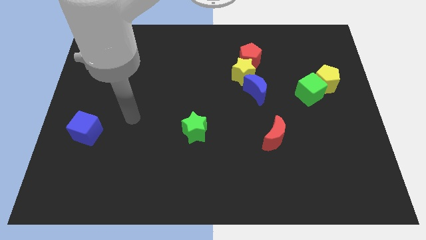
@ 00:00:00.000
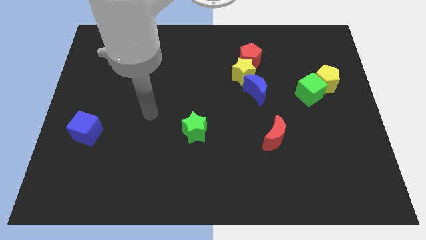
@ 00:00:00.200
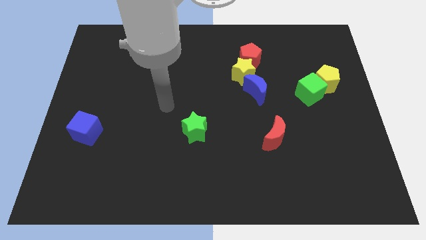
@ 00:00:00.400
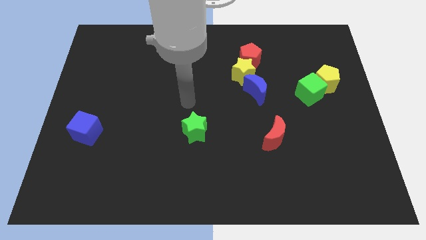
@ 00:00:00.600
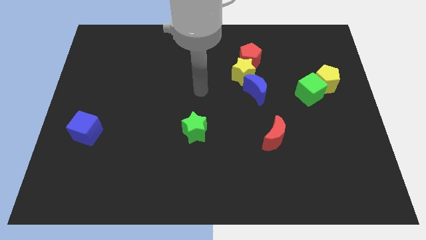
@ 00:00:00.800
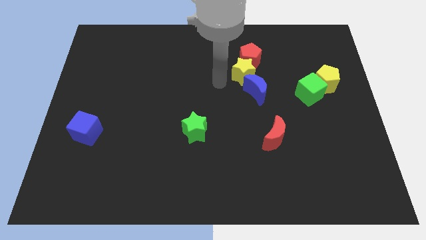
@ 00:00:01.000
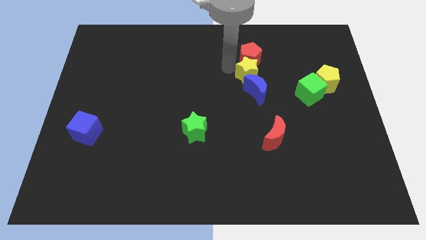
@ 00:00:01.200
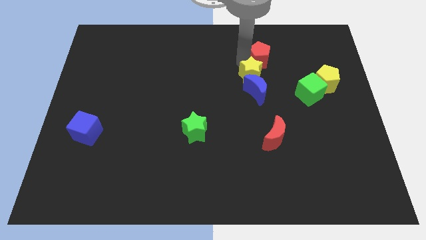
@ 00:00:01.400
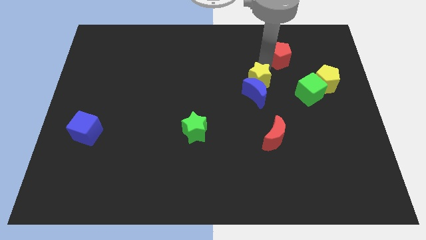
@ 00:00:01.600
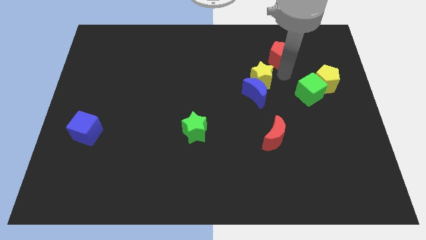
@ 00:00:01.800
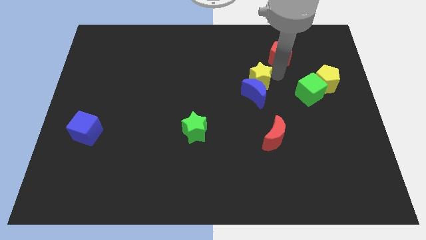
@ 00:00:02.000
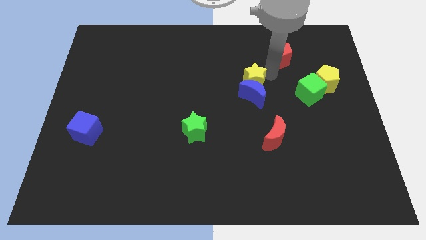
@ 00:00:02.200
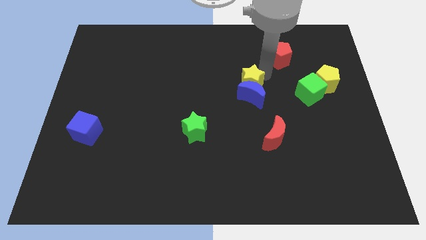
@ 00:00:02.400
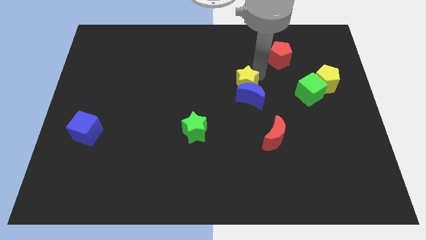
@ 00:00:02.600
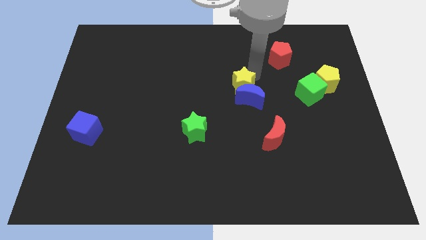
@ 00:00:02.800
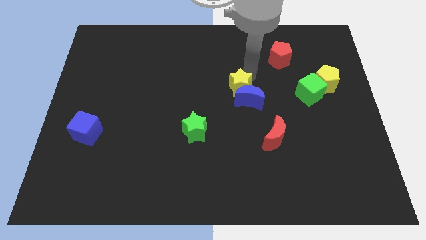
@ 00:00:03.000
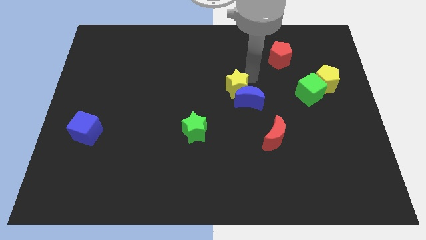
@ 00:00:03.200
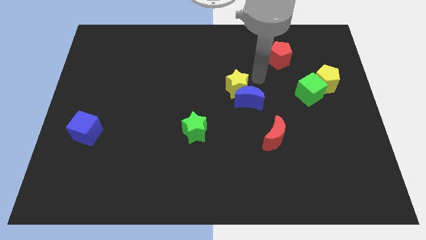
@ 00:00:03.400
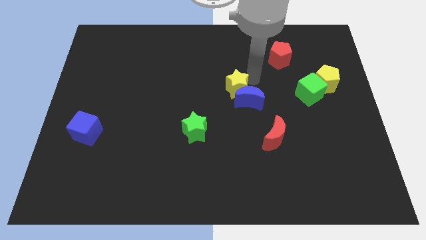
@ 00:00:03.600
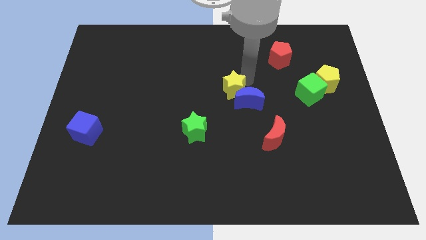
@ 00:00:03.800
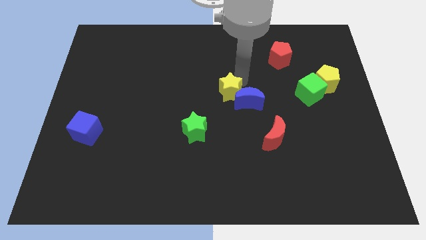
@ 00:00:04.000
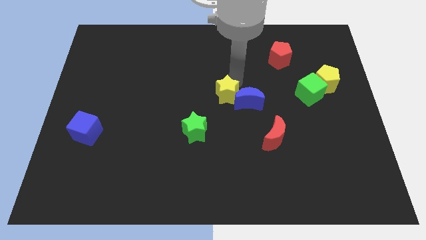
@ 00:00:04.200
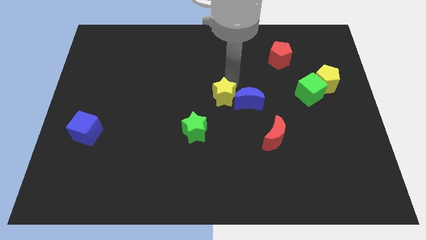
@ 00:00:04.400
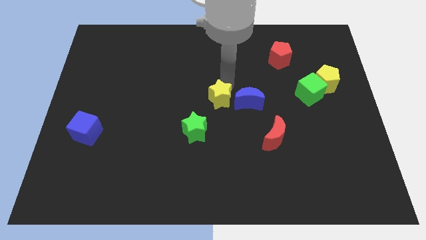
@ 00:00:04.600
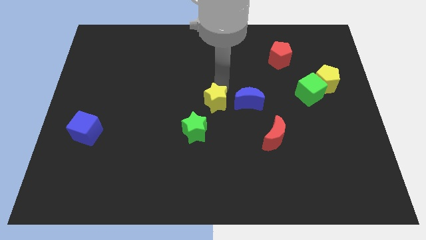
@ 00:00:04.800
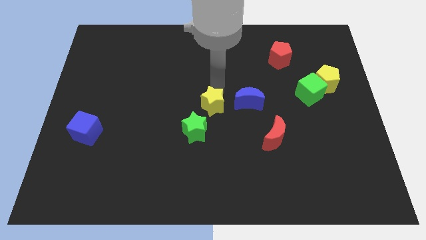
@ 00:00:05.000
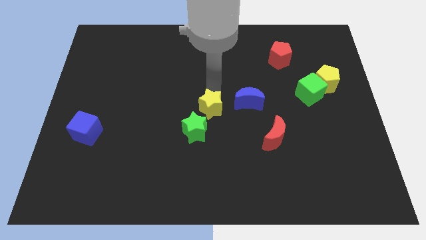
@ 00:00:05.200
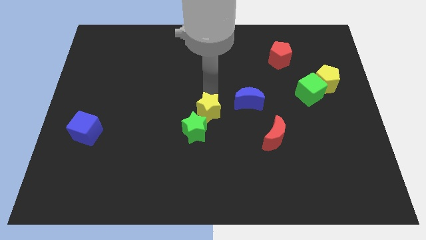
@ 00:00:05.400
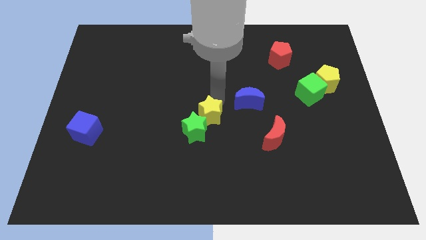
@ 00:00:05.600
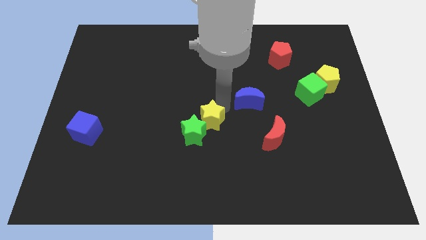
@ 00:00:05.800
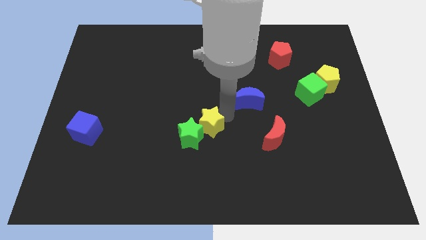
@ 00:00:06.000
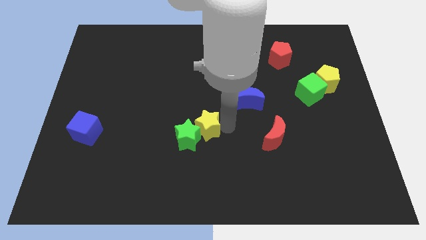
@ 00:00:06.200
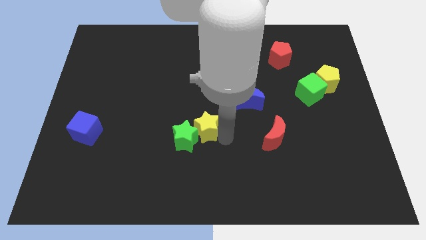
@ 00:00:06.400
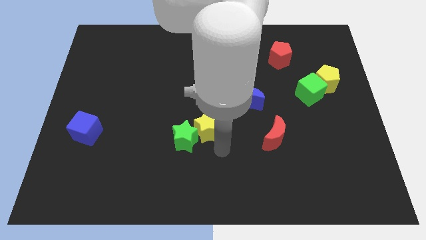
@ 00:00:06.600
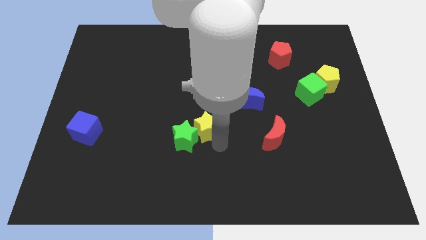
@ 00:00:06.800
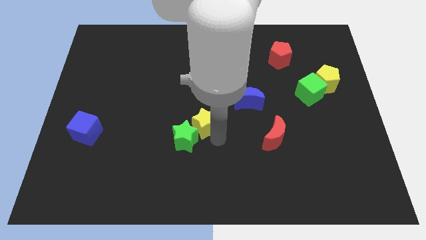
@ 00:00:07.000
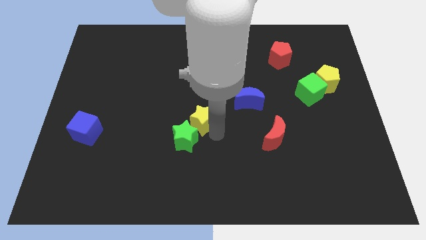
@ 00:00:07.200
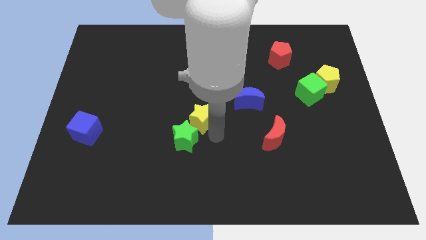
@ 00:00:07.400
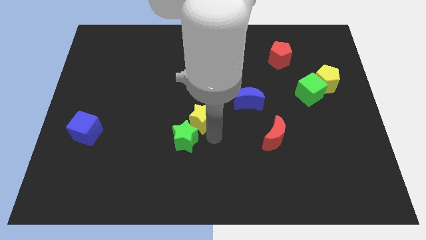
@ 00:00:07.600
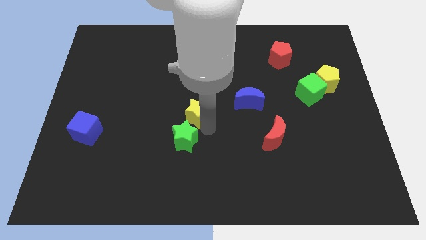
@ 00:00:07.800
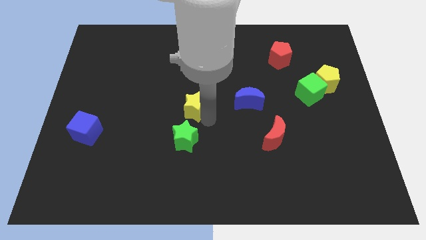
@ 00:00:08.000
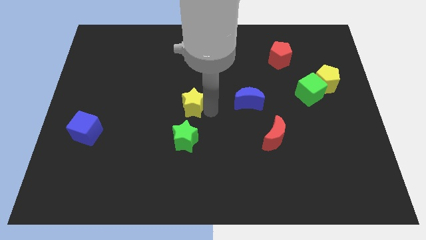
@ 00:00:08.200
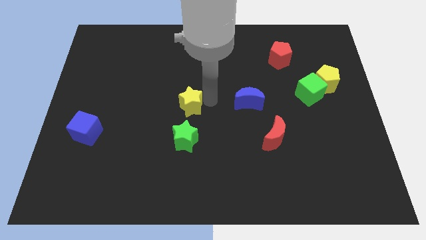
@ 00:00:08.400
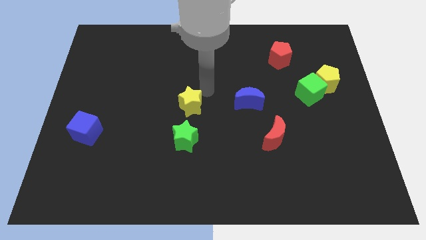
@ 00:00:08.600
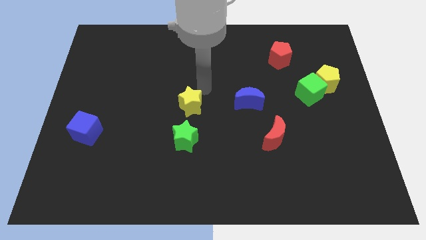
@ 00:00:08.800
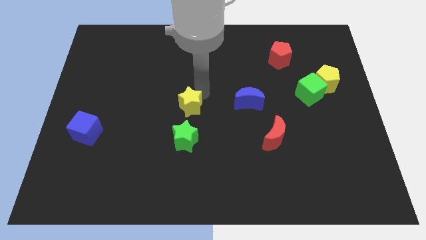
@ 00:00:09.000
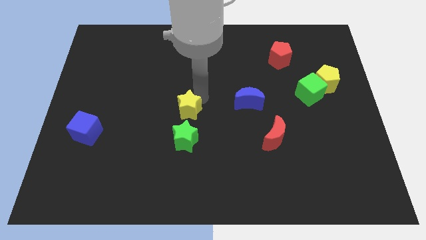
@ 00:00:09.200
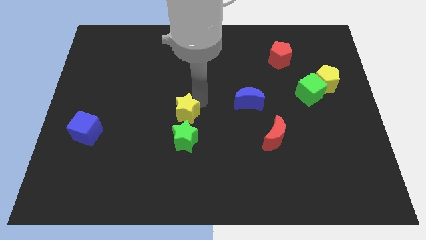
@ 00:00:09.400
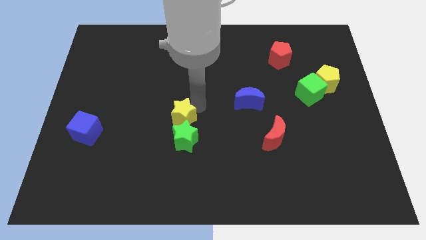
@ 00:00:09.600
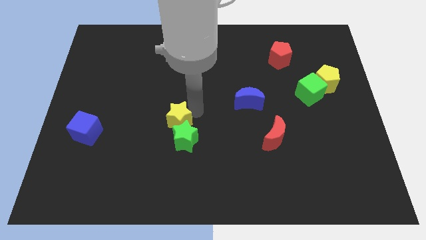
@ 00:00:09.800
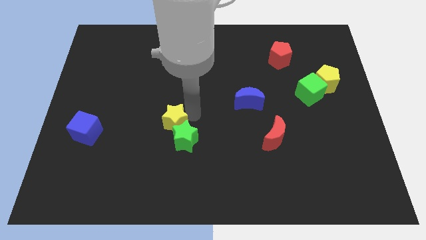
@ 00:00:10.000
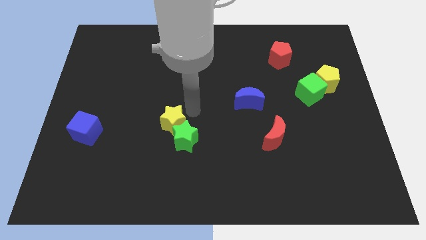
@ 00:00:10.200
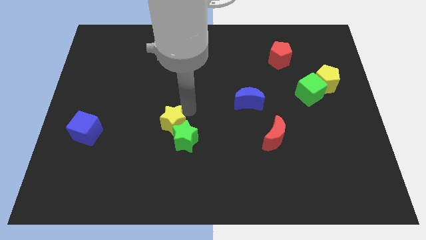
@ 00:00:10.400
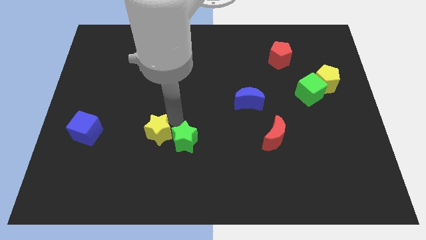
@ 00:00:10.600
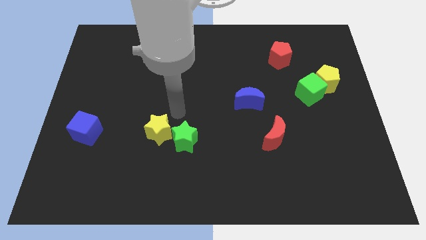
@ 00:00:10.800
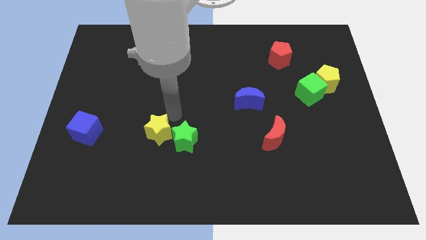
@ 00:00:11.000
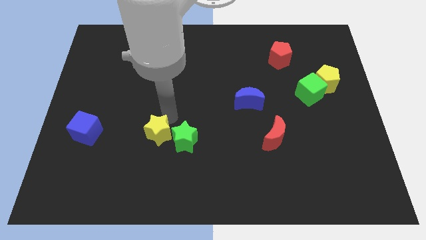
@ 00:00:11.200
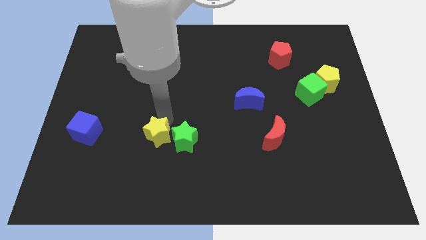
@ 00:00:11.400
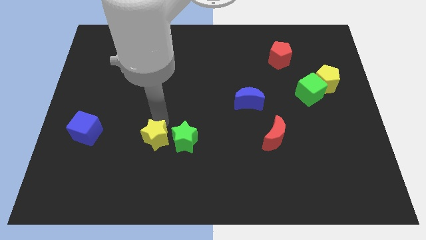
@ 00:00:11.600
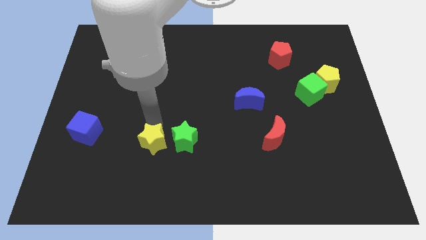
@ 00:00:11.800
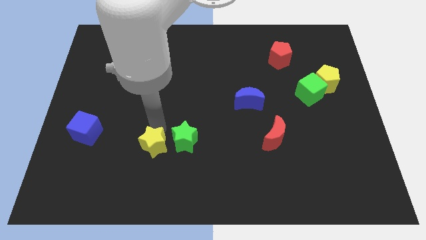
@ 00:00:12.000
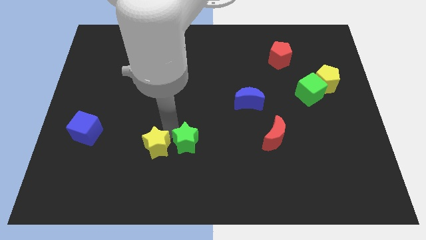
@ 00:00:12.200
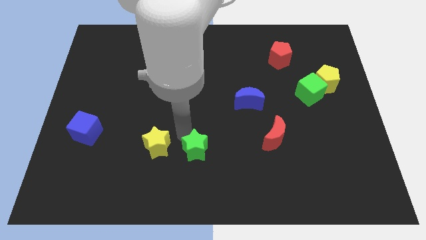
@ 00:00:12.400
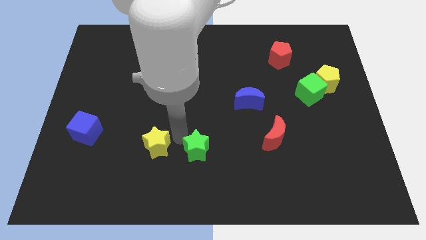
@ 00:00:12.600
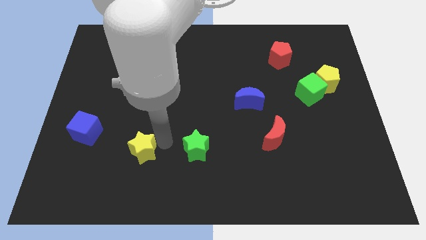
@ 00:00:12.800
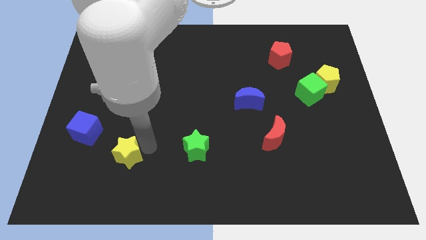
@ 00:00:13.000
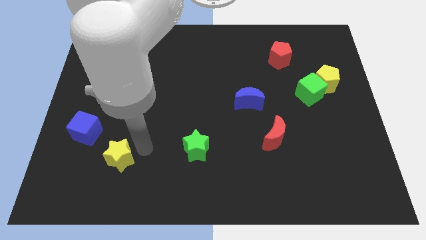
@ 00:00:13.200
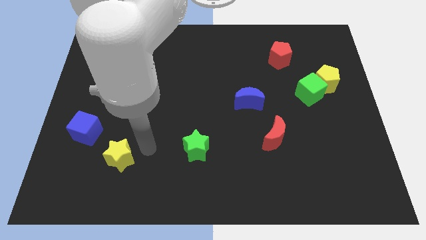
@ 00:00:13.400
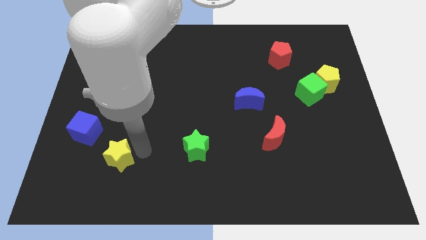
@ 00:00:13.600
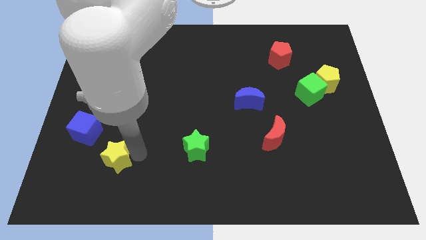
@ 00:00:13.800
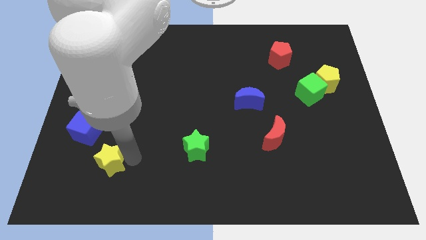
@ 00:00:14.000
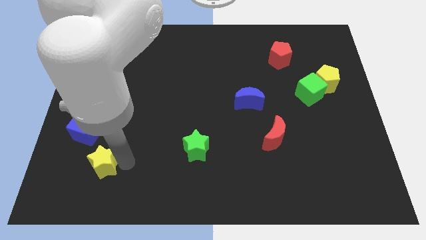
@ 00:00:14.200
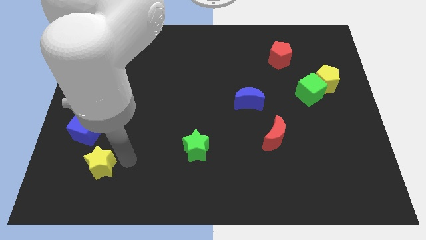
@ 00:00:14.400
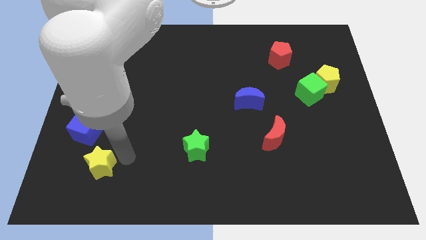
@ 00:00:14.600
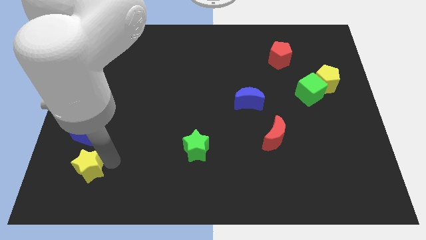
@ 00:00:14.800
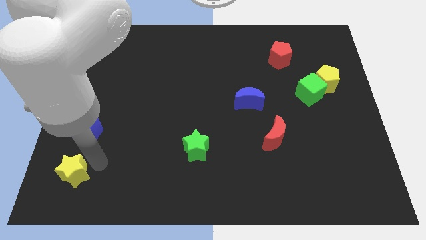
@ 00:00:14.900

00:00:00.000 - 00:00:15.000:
put the yellow star to the bottom left of the board
